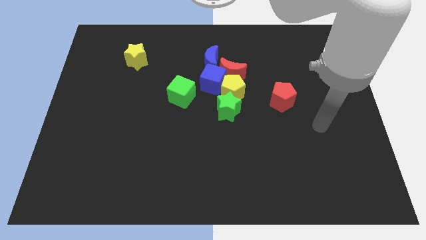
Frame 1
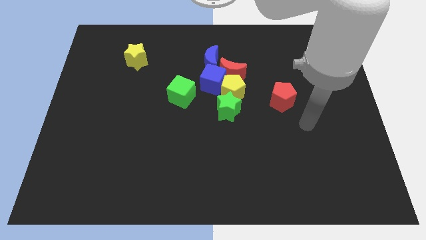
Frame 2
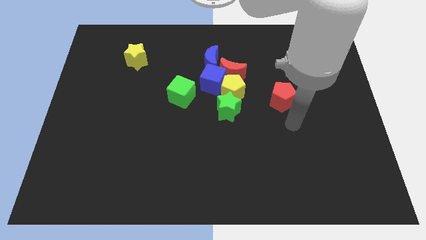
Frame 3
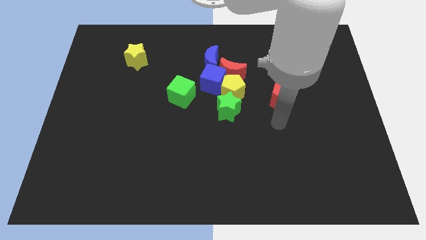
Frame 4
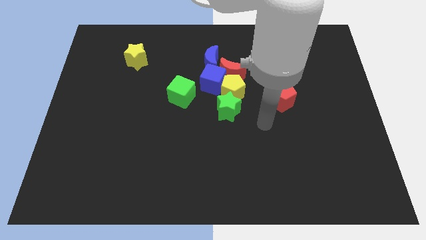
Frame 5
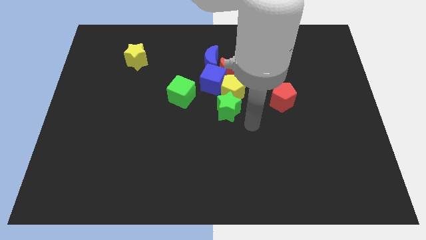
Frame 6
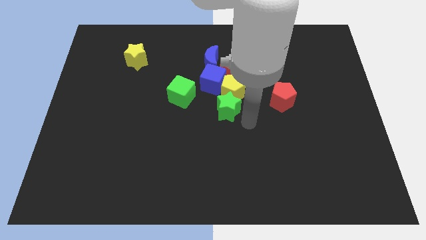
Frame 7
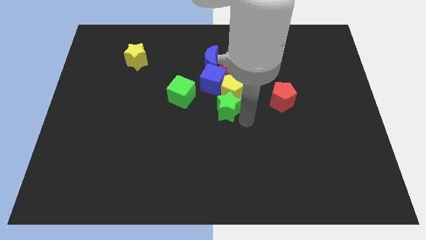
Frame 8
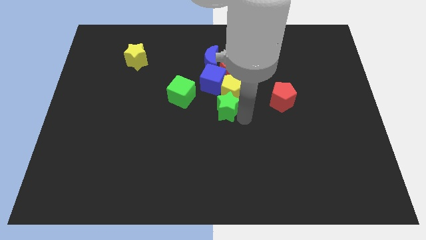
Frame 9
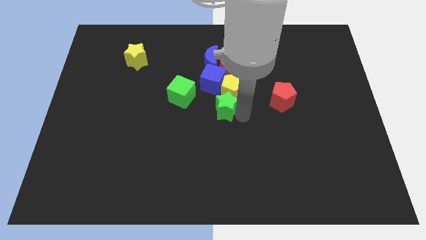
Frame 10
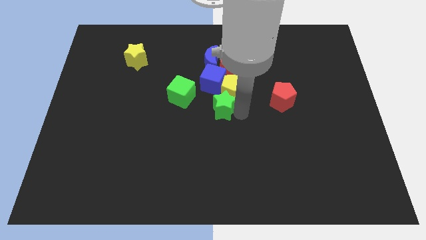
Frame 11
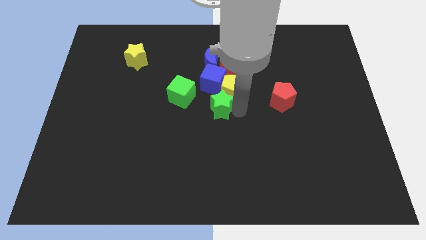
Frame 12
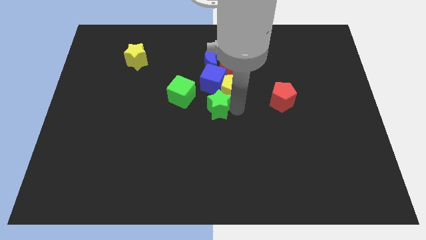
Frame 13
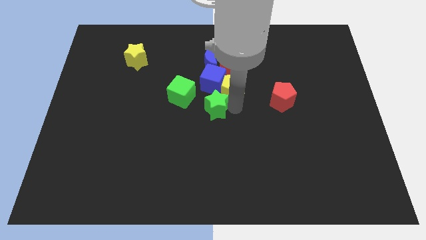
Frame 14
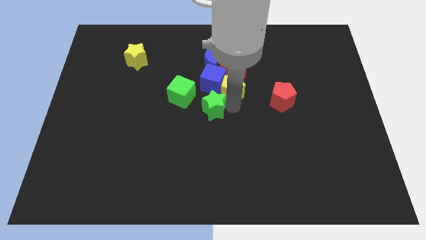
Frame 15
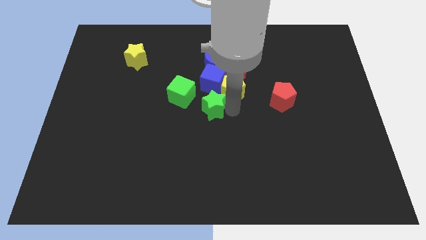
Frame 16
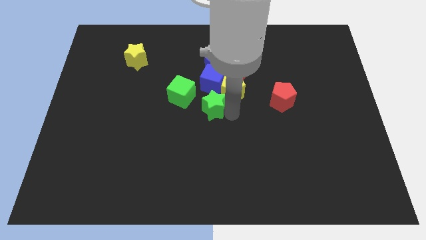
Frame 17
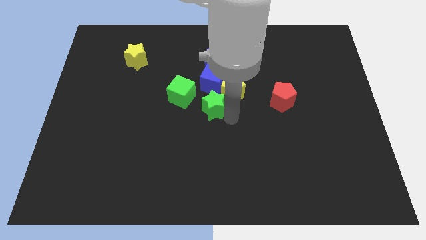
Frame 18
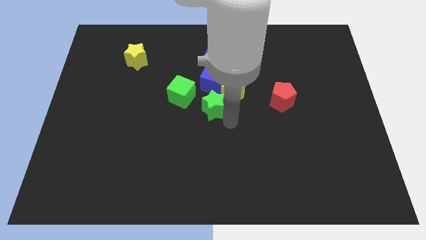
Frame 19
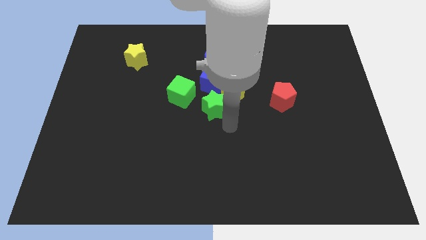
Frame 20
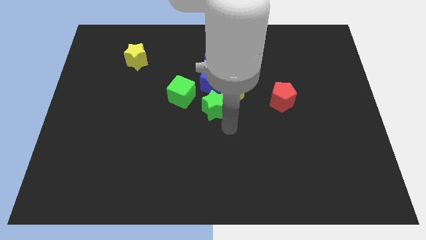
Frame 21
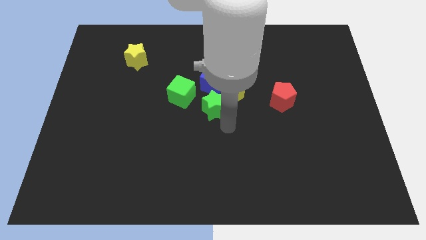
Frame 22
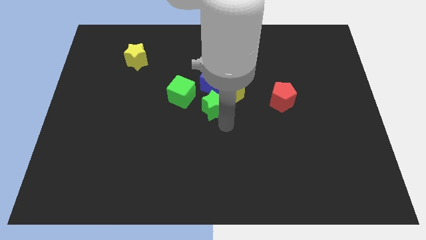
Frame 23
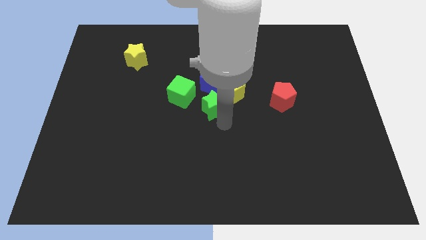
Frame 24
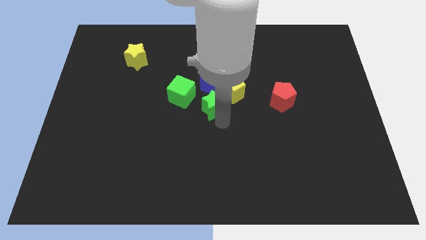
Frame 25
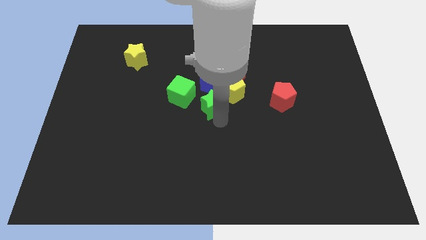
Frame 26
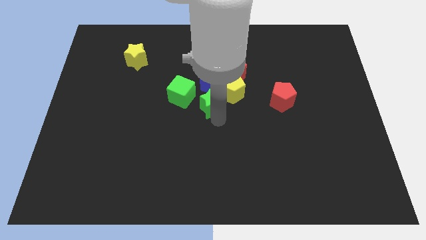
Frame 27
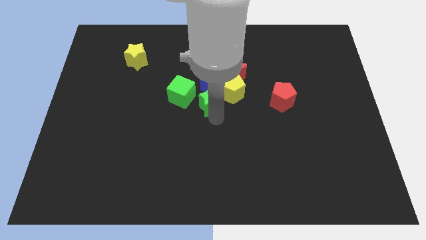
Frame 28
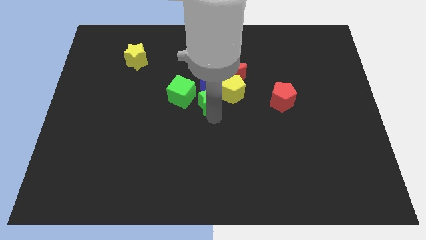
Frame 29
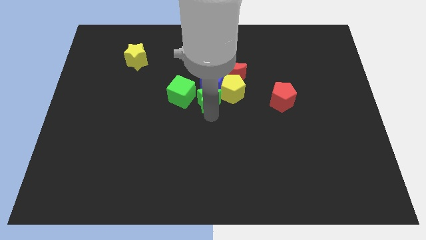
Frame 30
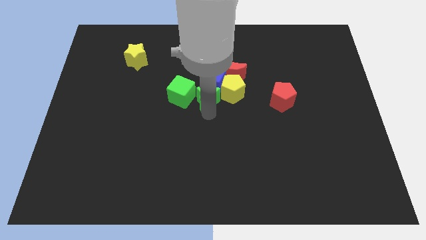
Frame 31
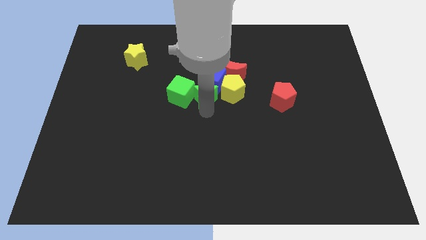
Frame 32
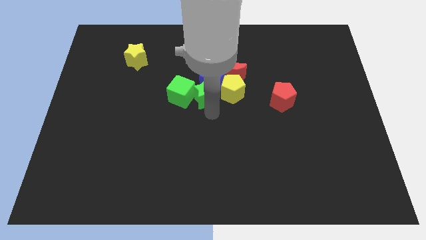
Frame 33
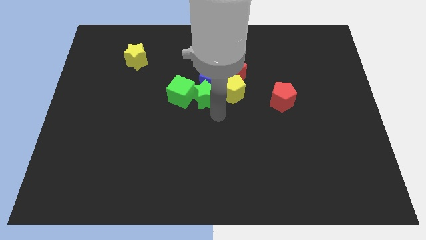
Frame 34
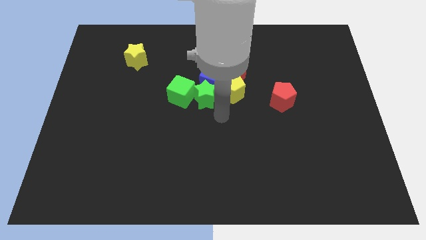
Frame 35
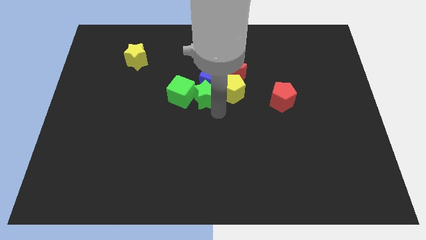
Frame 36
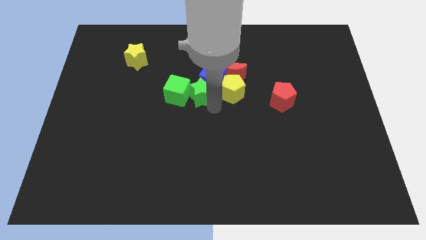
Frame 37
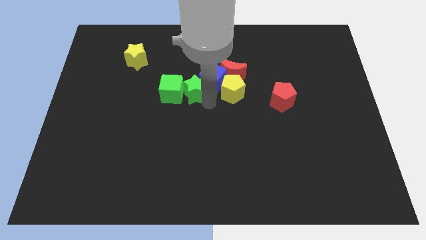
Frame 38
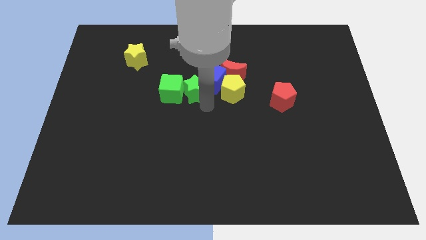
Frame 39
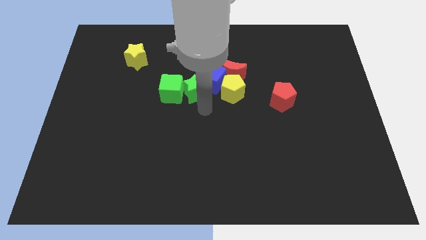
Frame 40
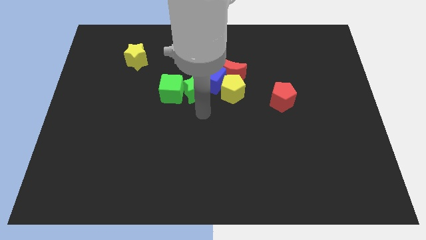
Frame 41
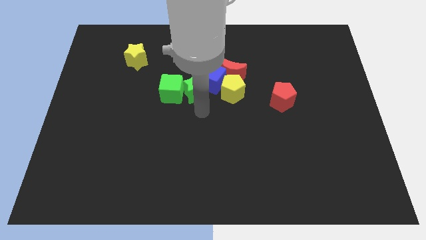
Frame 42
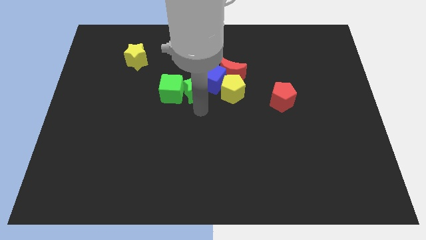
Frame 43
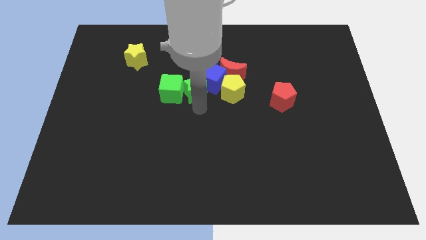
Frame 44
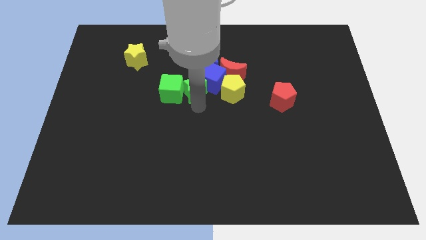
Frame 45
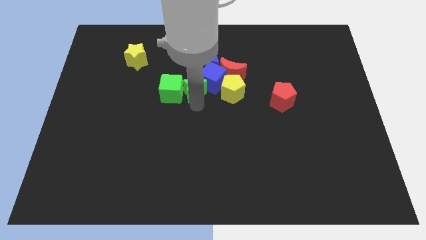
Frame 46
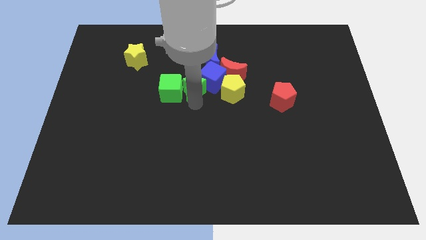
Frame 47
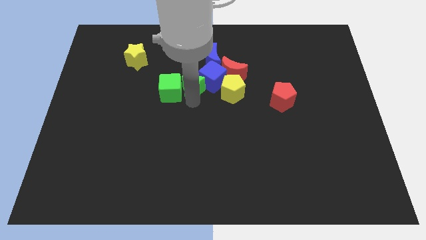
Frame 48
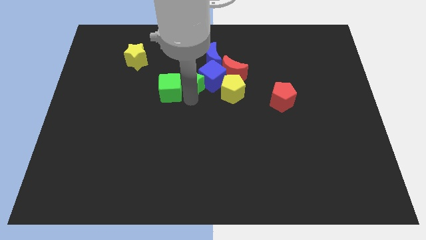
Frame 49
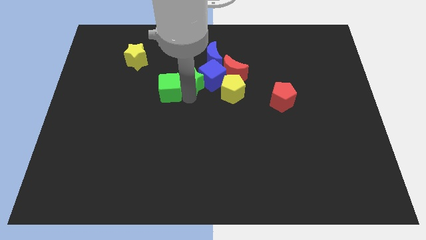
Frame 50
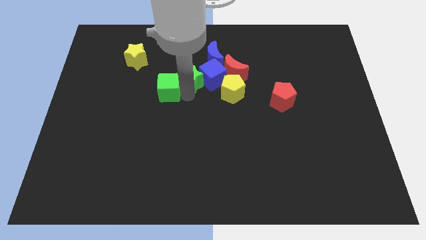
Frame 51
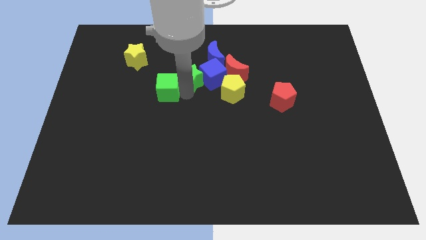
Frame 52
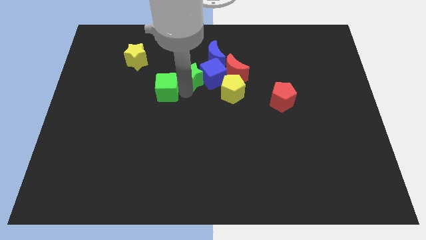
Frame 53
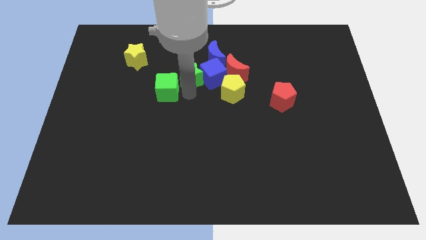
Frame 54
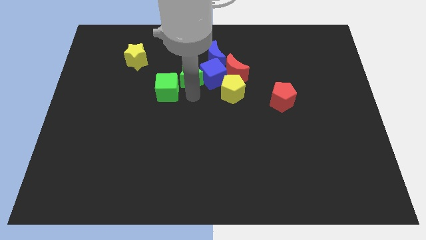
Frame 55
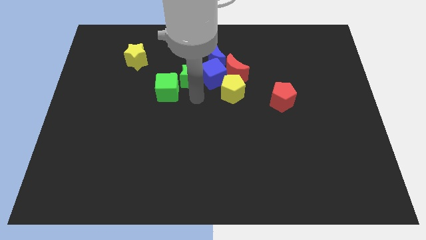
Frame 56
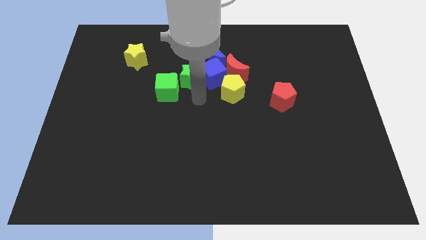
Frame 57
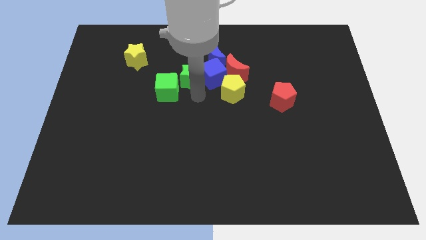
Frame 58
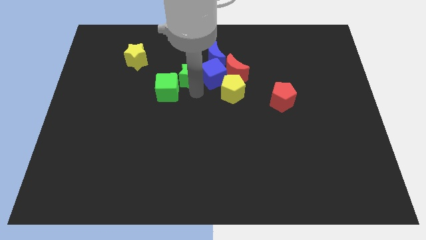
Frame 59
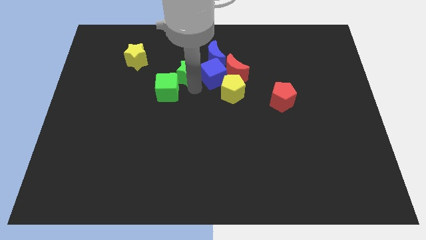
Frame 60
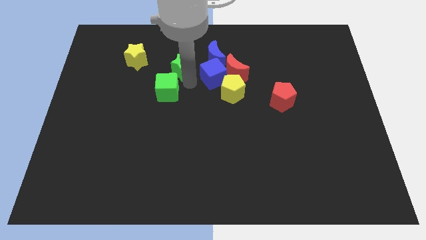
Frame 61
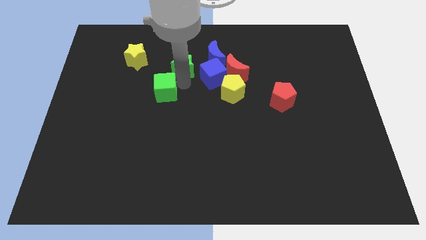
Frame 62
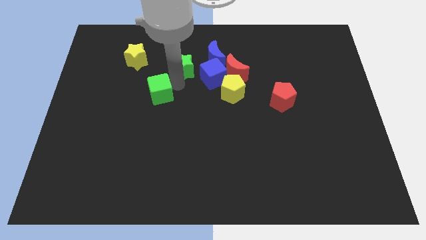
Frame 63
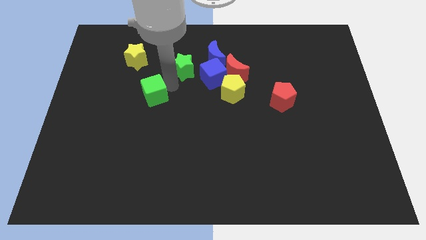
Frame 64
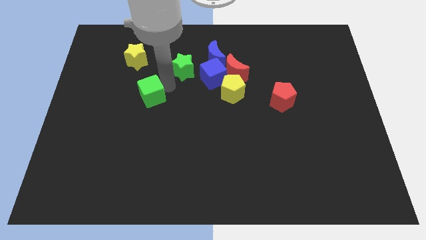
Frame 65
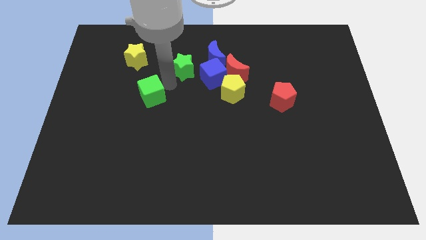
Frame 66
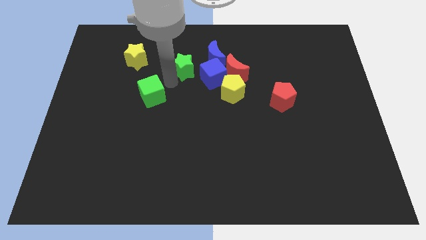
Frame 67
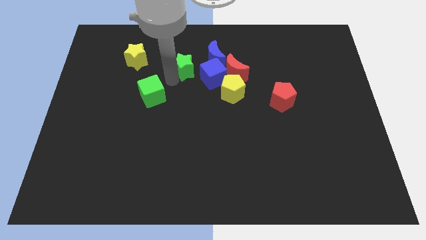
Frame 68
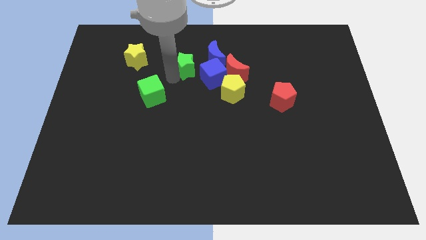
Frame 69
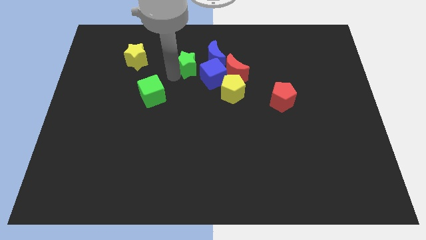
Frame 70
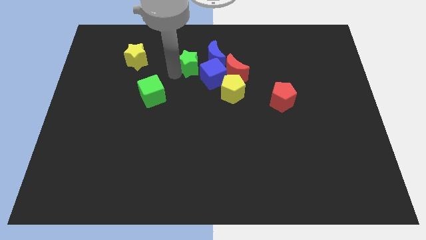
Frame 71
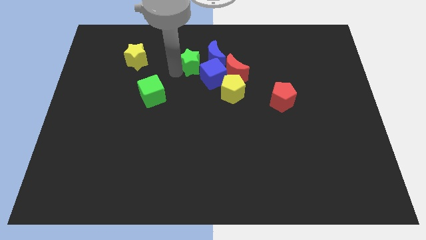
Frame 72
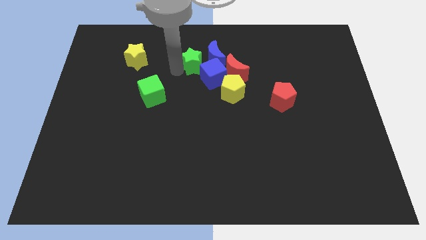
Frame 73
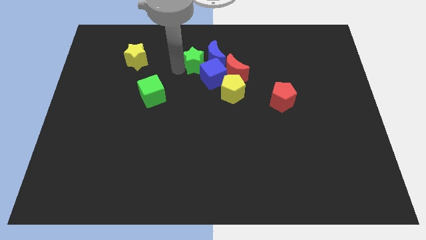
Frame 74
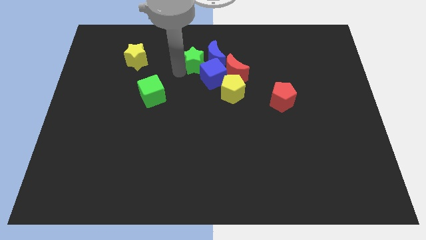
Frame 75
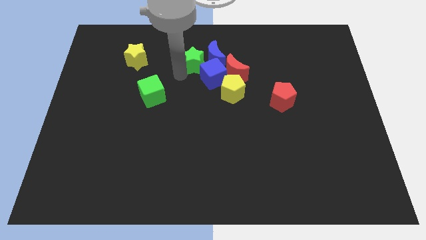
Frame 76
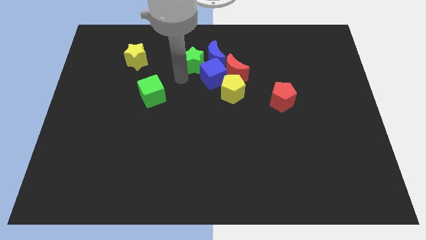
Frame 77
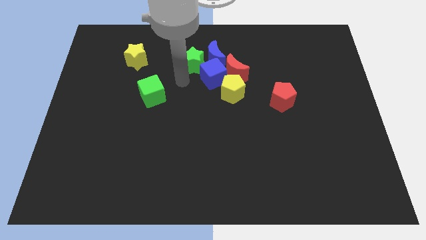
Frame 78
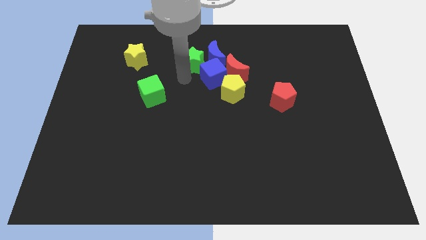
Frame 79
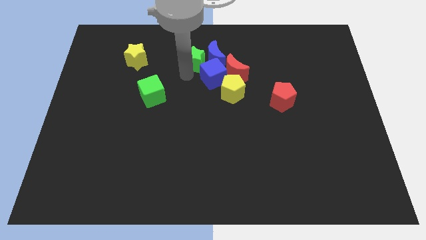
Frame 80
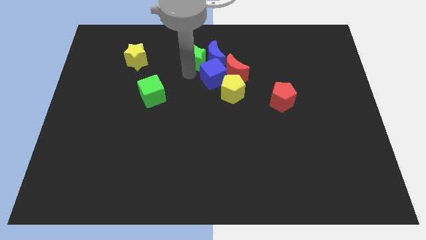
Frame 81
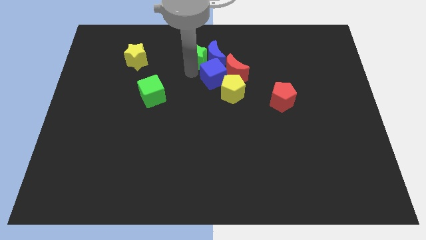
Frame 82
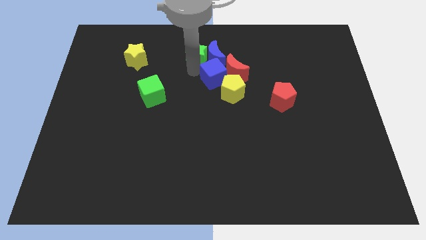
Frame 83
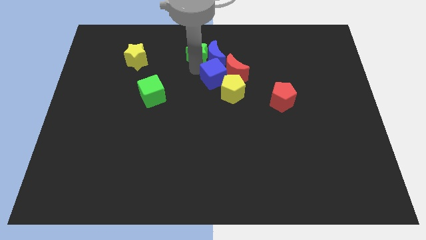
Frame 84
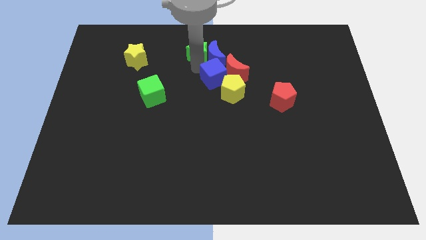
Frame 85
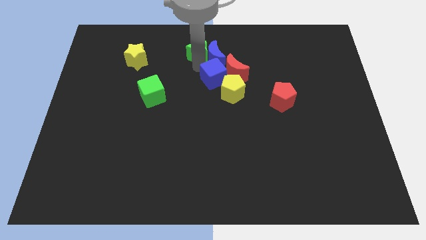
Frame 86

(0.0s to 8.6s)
push the green star to the top side
